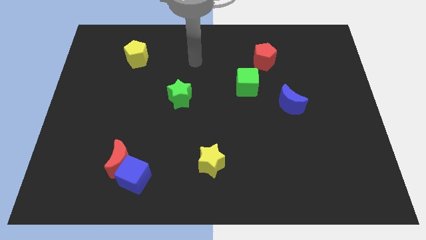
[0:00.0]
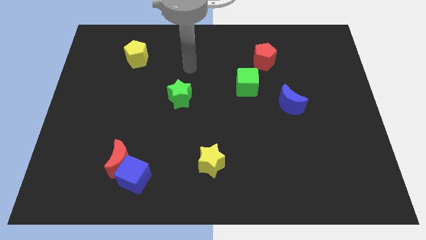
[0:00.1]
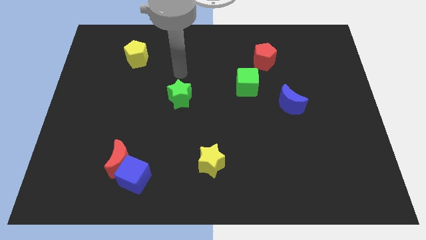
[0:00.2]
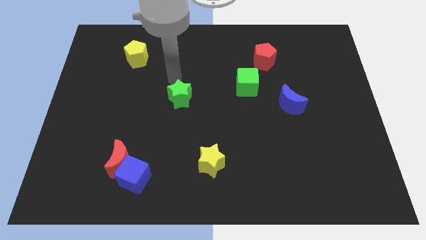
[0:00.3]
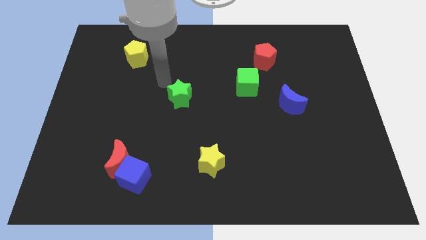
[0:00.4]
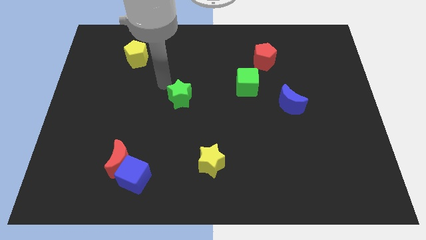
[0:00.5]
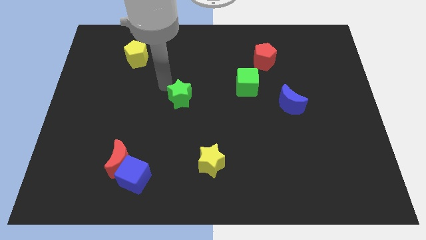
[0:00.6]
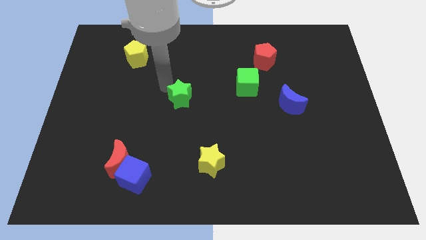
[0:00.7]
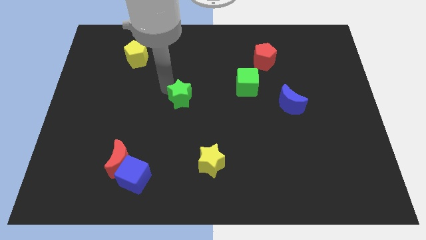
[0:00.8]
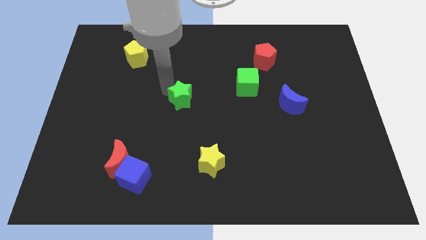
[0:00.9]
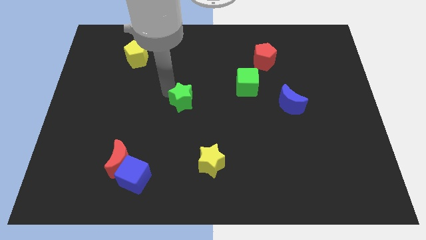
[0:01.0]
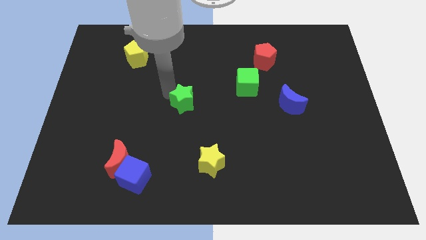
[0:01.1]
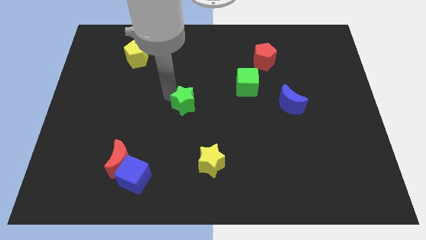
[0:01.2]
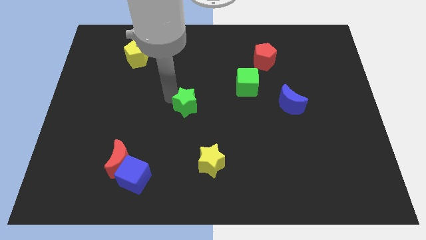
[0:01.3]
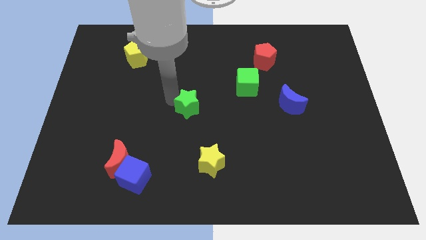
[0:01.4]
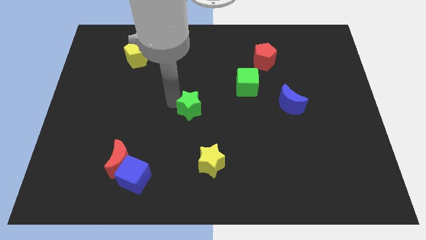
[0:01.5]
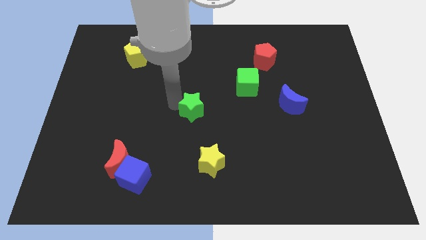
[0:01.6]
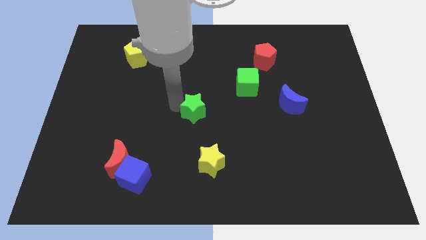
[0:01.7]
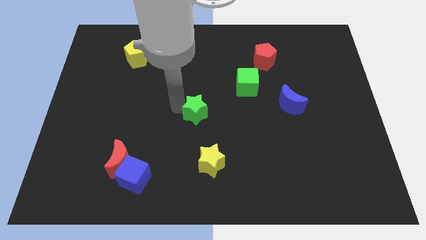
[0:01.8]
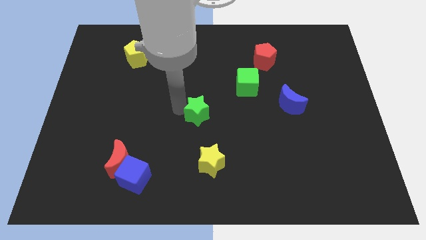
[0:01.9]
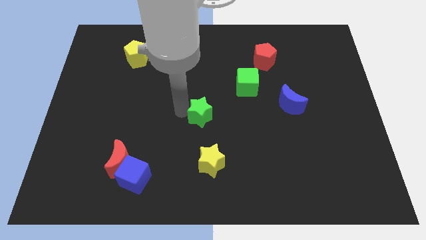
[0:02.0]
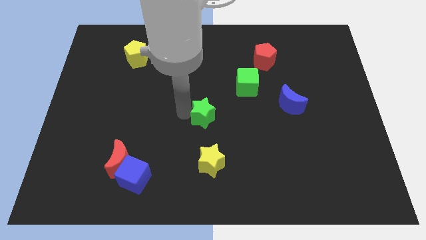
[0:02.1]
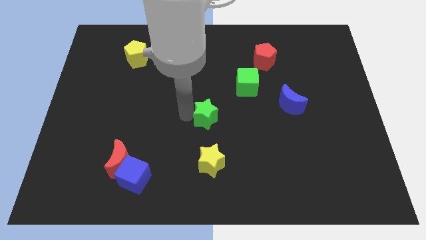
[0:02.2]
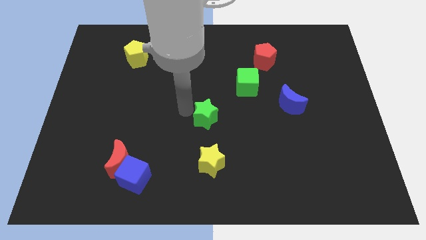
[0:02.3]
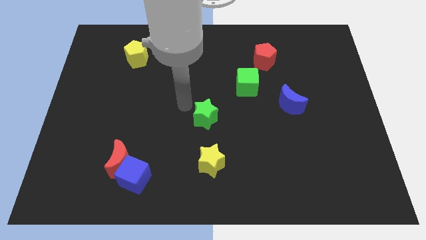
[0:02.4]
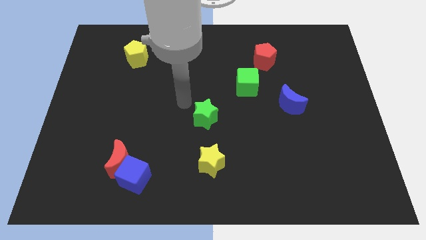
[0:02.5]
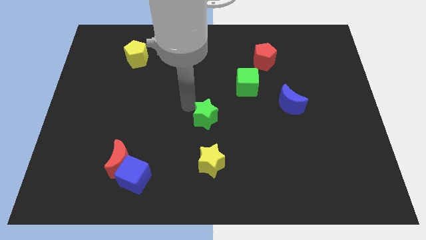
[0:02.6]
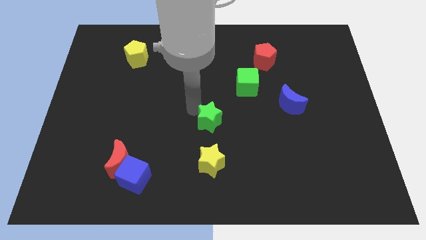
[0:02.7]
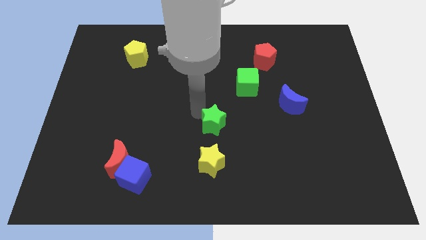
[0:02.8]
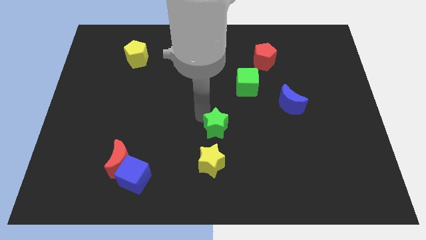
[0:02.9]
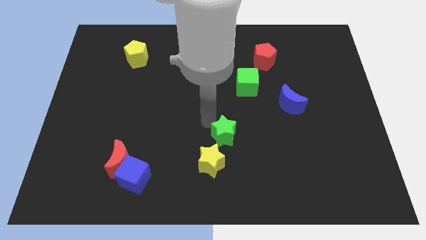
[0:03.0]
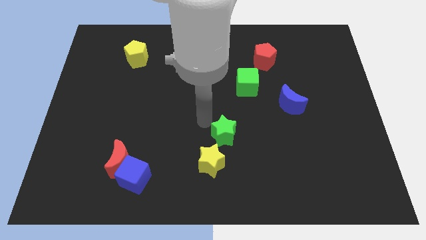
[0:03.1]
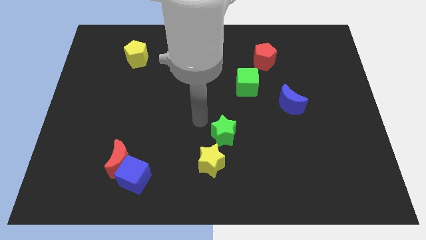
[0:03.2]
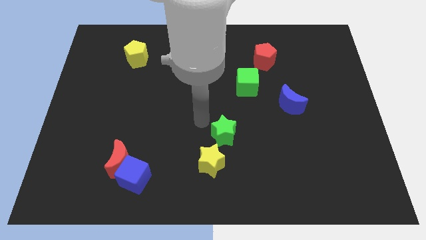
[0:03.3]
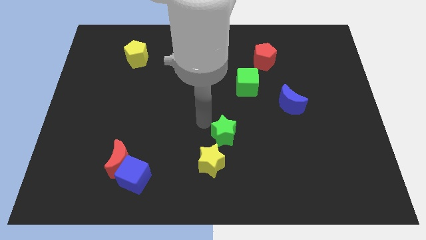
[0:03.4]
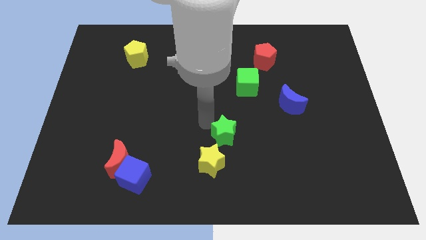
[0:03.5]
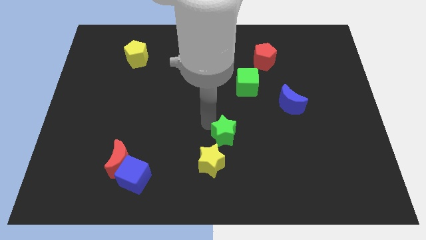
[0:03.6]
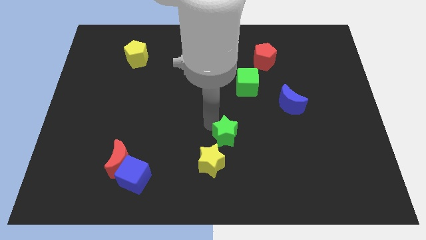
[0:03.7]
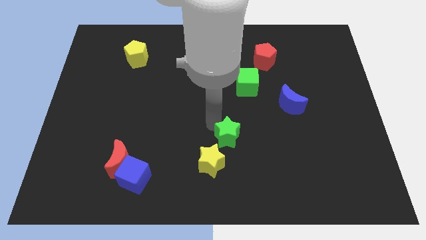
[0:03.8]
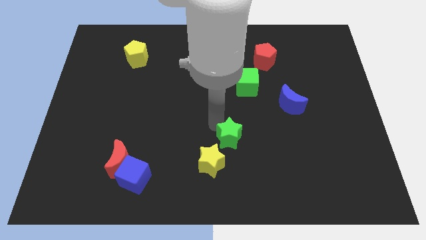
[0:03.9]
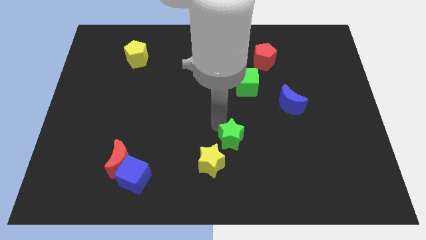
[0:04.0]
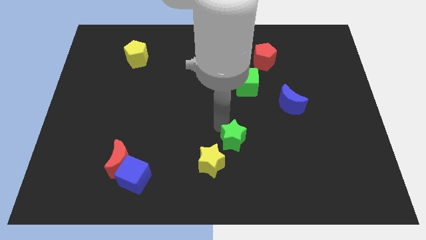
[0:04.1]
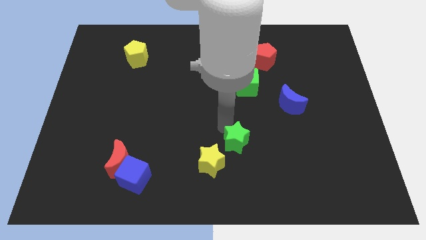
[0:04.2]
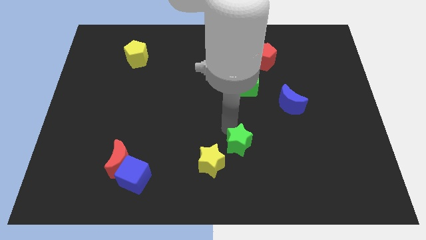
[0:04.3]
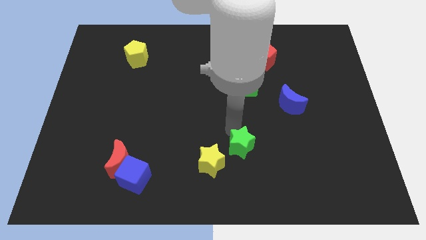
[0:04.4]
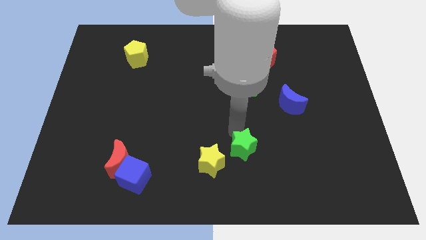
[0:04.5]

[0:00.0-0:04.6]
slide the green star down and right diagonally

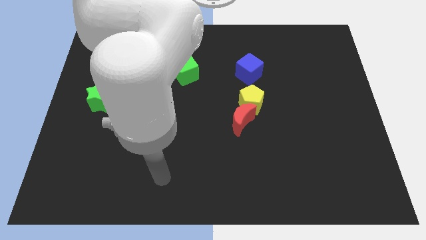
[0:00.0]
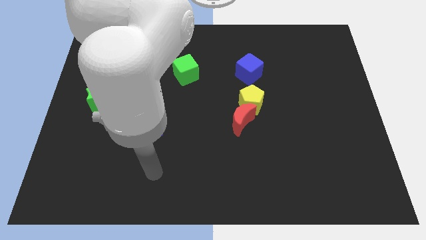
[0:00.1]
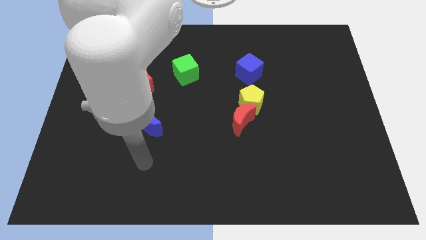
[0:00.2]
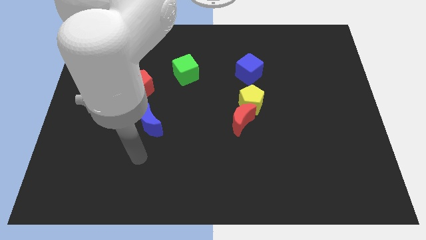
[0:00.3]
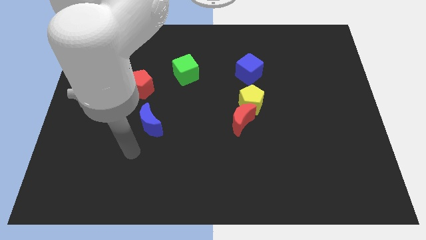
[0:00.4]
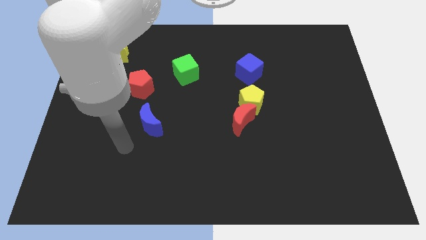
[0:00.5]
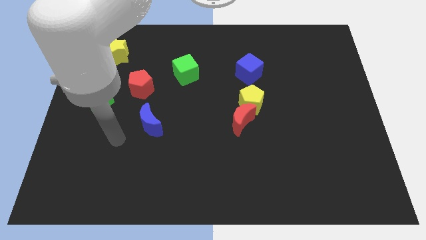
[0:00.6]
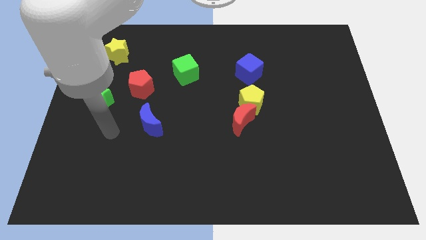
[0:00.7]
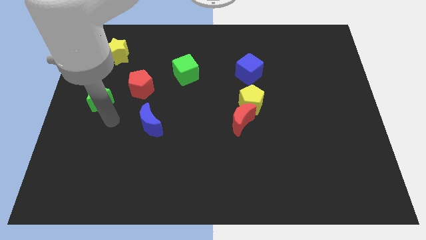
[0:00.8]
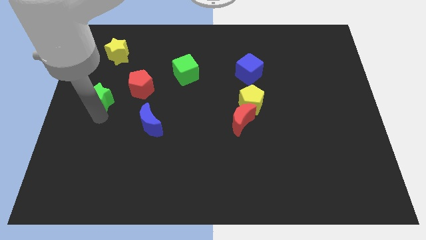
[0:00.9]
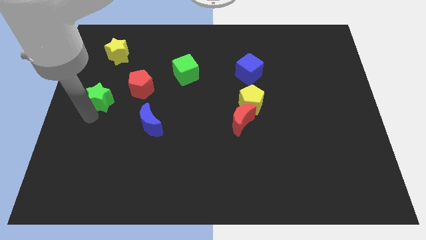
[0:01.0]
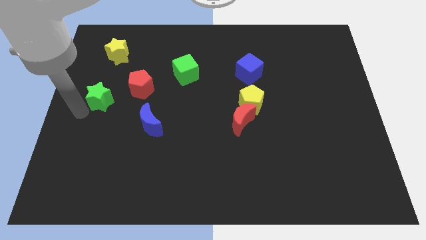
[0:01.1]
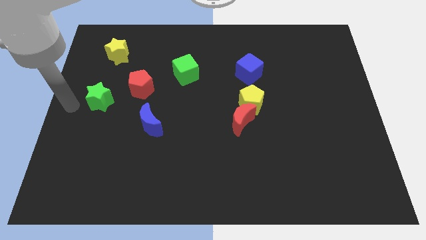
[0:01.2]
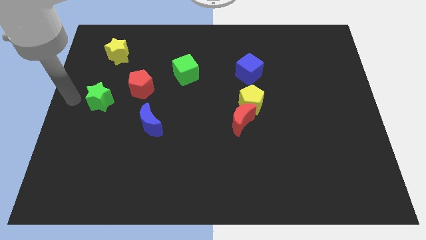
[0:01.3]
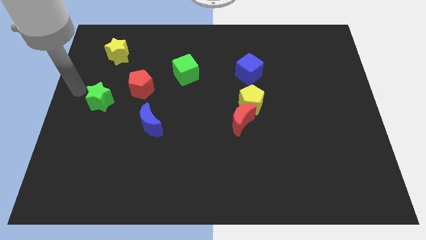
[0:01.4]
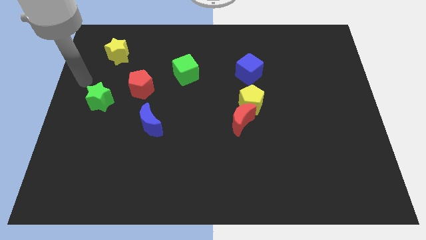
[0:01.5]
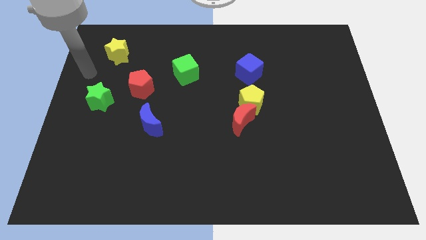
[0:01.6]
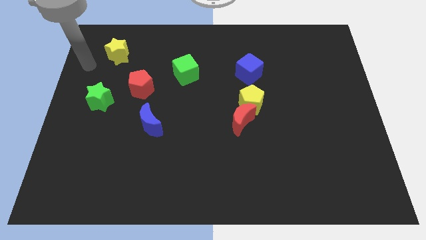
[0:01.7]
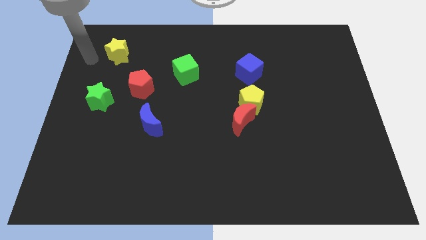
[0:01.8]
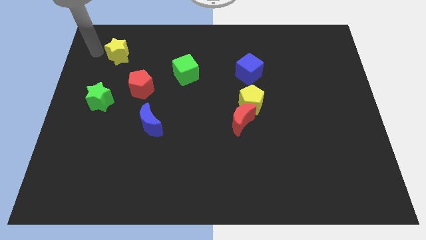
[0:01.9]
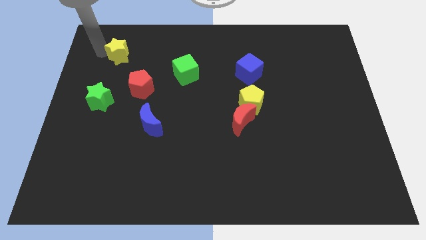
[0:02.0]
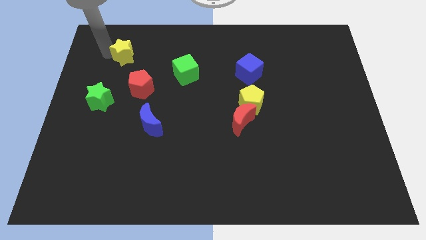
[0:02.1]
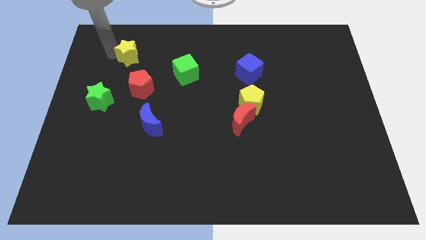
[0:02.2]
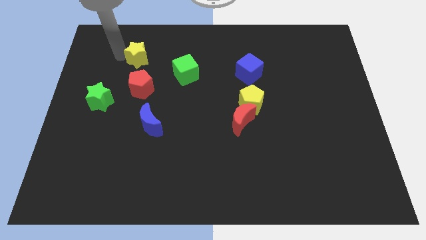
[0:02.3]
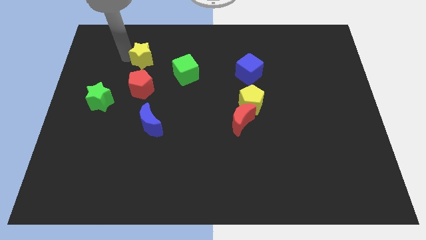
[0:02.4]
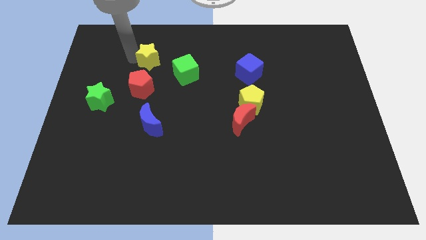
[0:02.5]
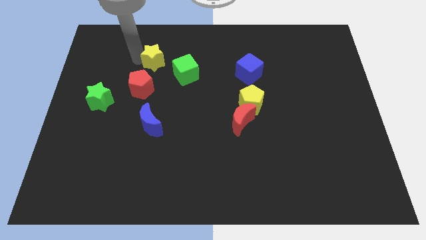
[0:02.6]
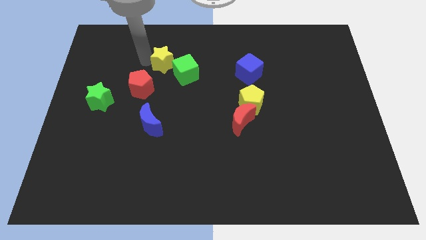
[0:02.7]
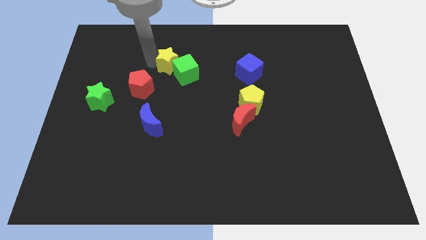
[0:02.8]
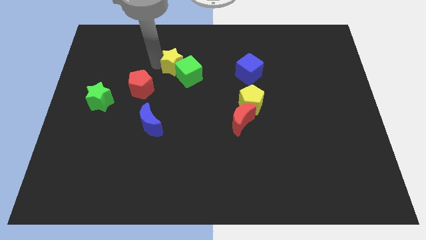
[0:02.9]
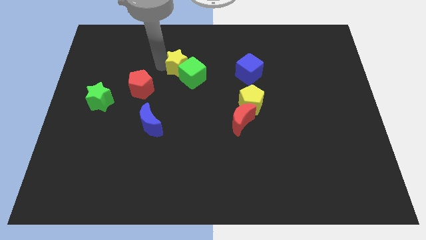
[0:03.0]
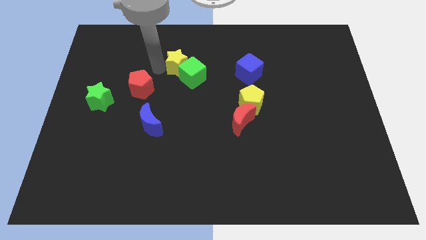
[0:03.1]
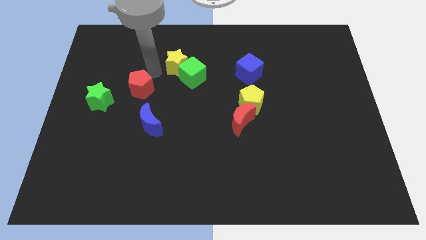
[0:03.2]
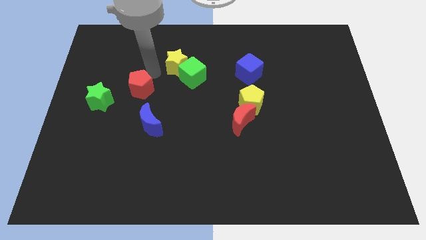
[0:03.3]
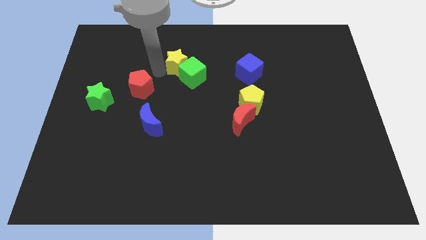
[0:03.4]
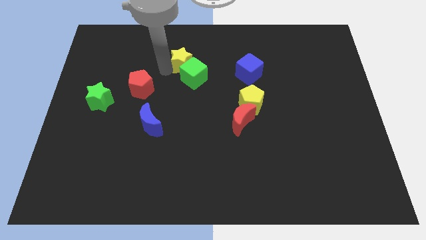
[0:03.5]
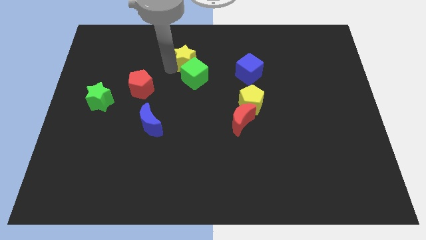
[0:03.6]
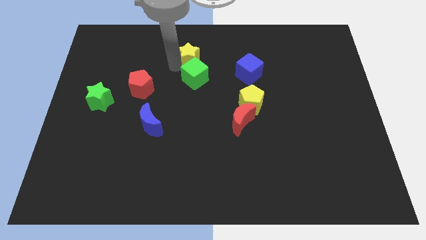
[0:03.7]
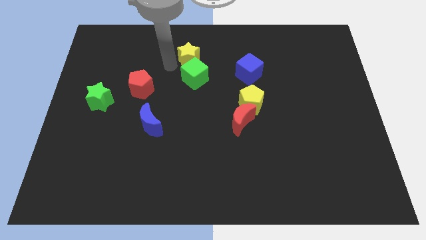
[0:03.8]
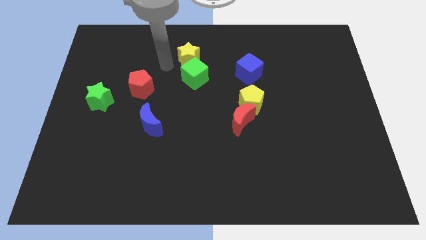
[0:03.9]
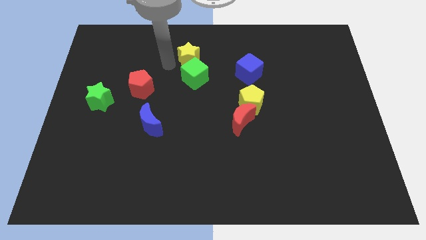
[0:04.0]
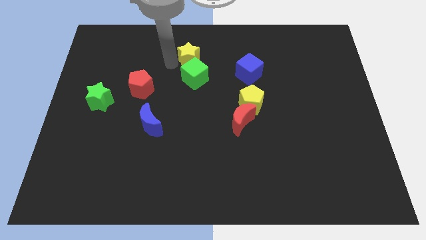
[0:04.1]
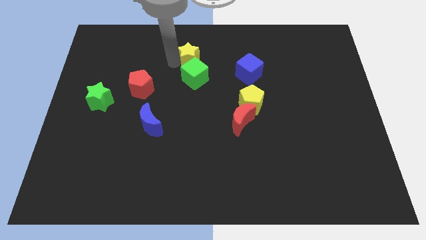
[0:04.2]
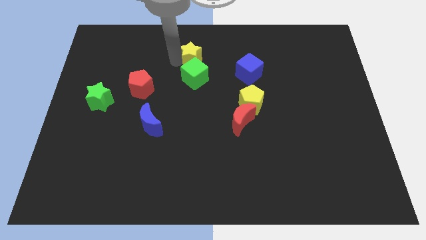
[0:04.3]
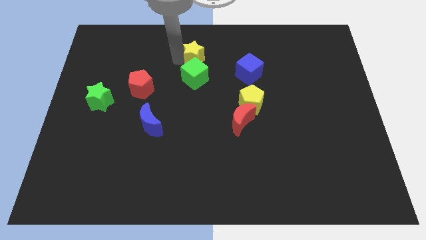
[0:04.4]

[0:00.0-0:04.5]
push the yellow star to the right
